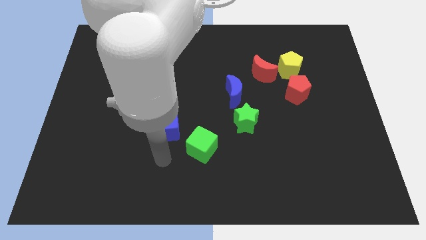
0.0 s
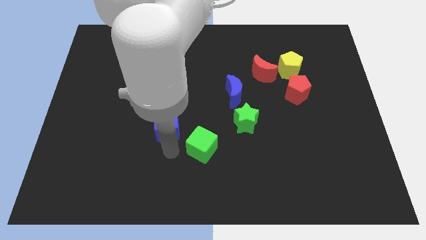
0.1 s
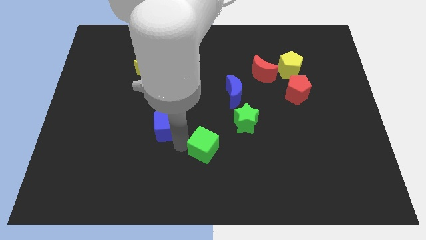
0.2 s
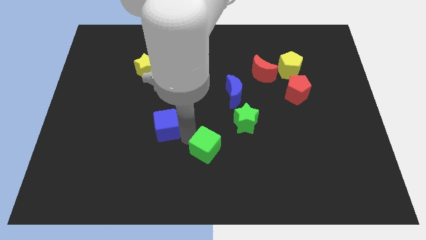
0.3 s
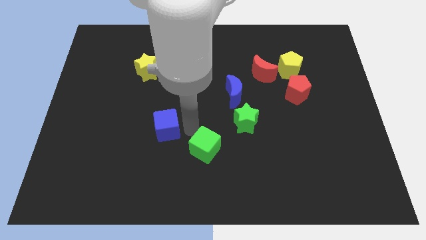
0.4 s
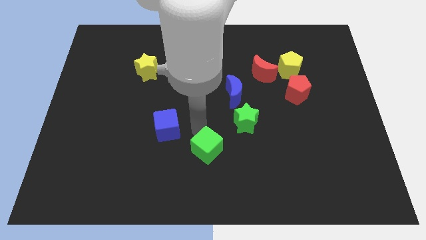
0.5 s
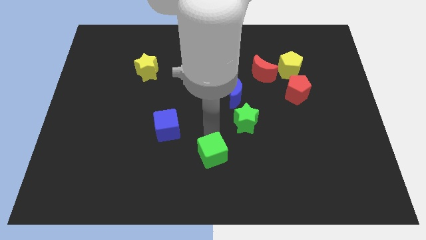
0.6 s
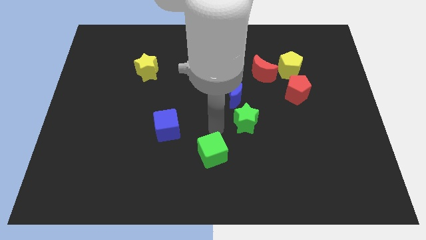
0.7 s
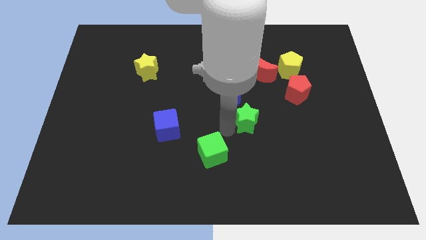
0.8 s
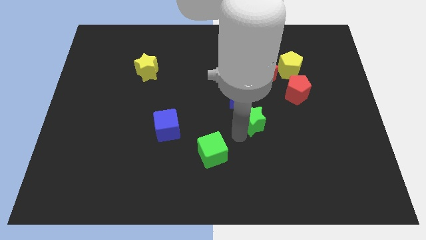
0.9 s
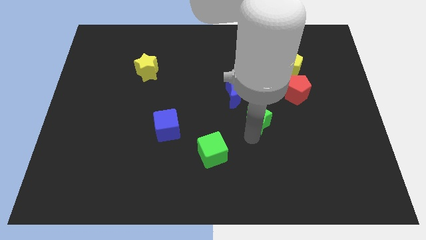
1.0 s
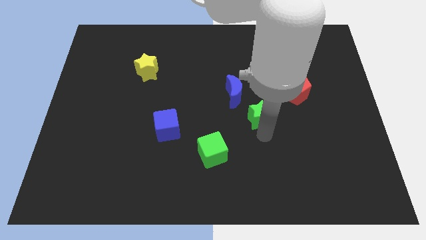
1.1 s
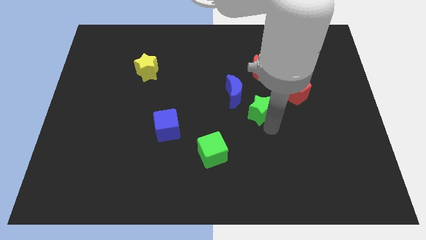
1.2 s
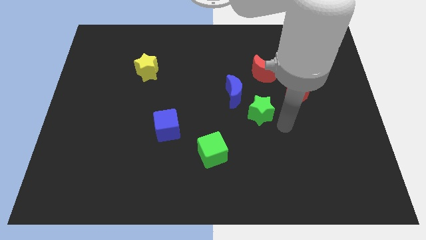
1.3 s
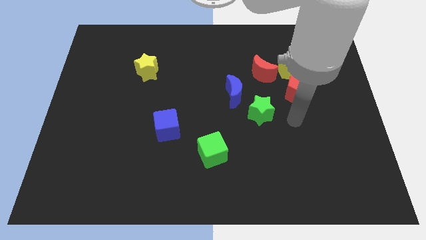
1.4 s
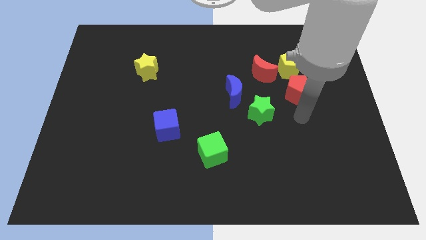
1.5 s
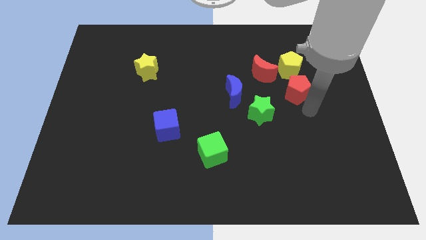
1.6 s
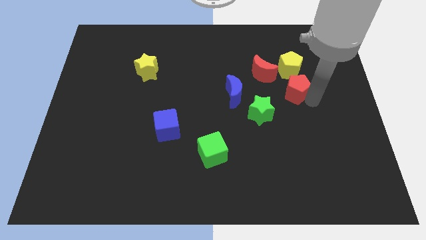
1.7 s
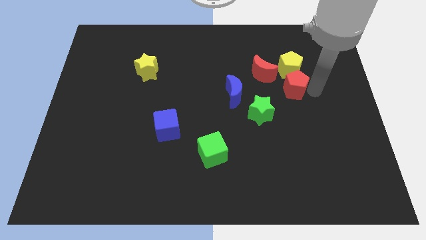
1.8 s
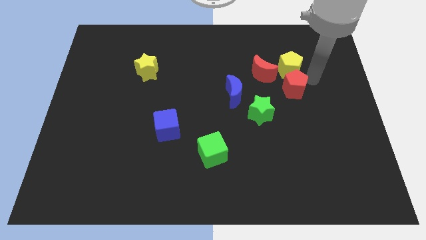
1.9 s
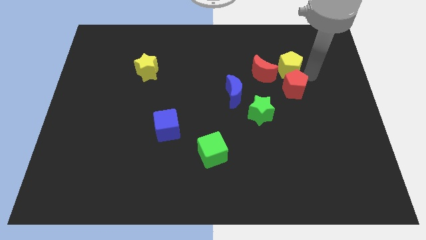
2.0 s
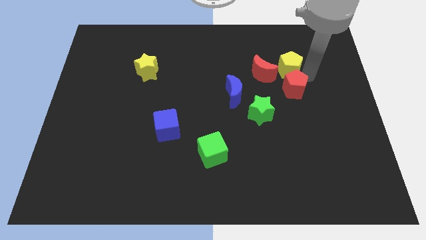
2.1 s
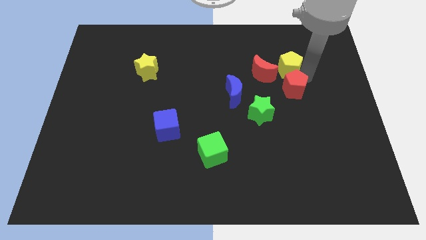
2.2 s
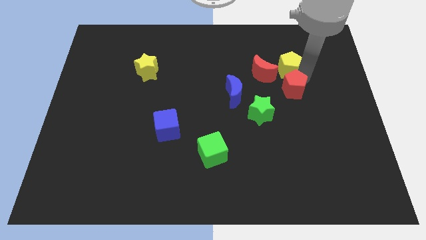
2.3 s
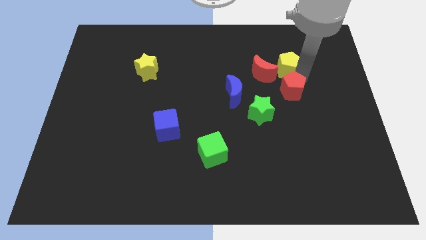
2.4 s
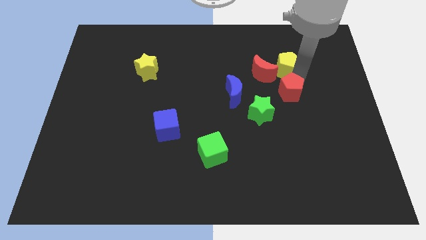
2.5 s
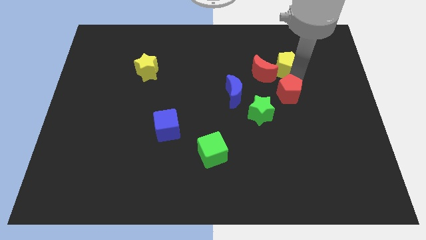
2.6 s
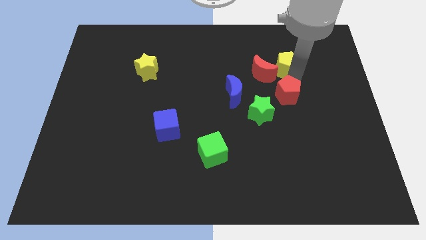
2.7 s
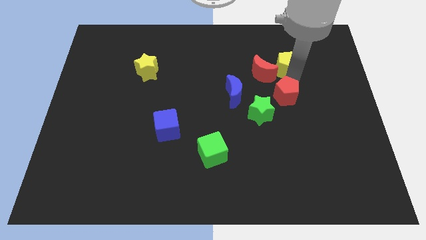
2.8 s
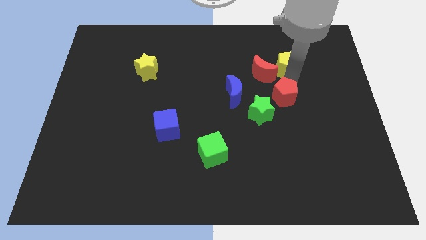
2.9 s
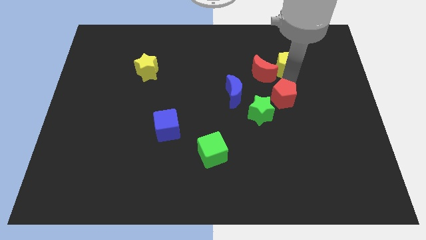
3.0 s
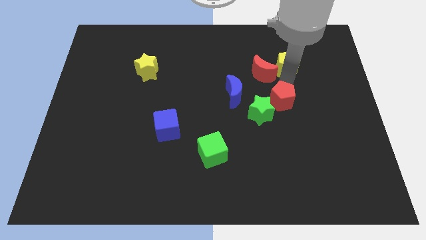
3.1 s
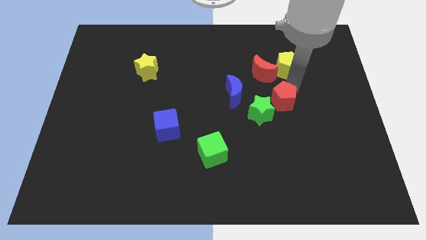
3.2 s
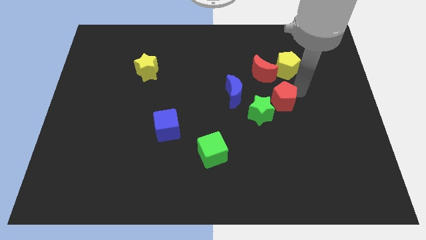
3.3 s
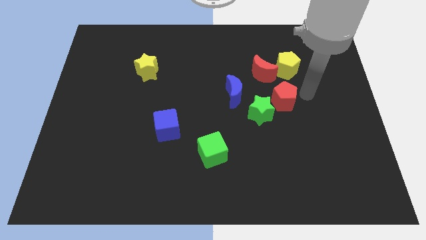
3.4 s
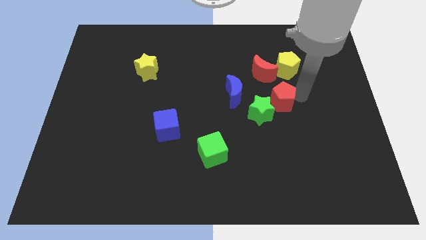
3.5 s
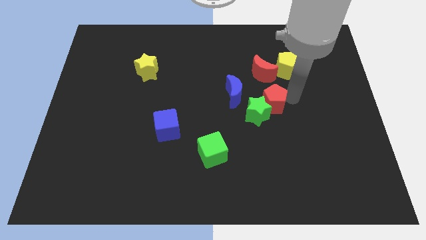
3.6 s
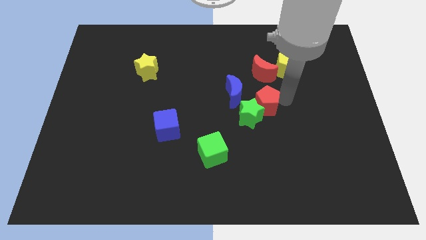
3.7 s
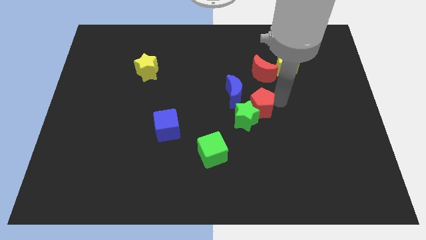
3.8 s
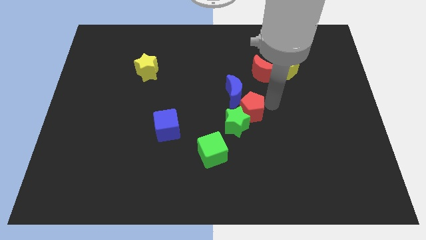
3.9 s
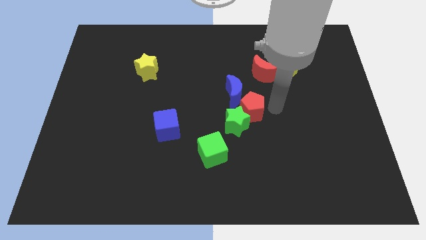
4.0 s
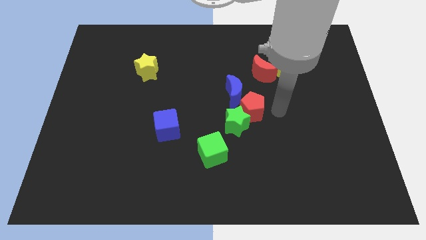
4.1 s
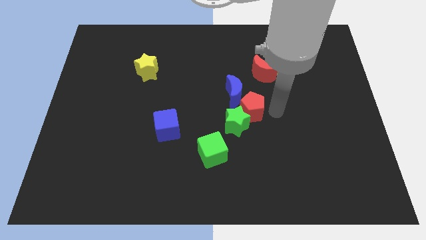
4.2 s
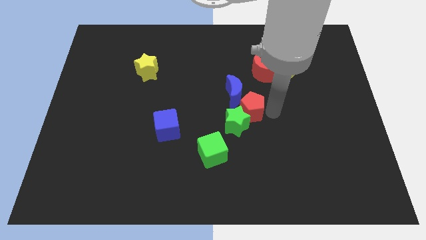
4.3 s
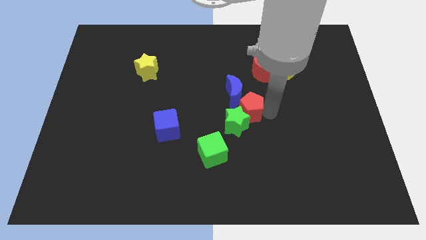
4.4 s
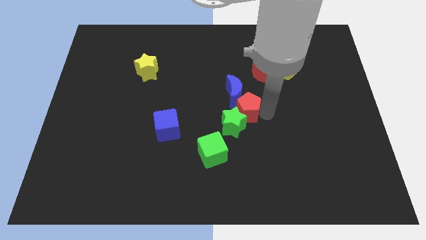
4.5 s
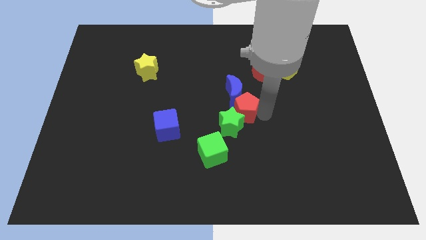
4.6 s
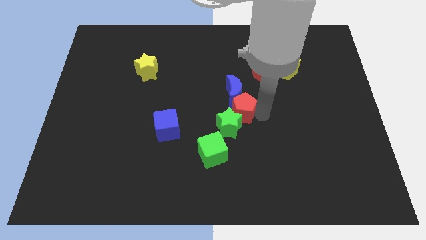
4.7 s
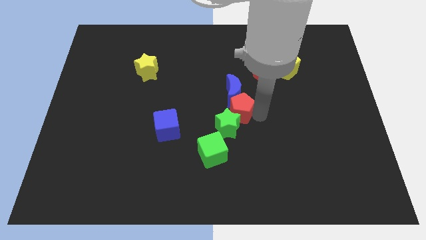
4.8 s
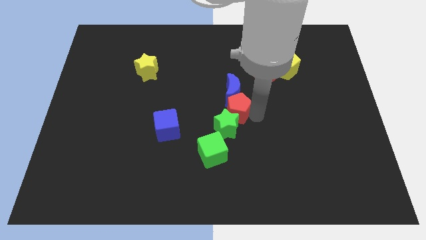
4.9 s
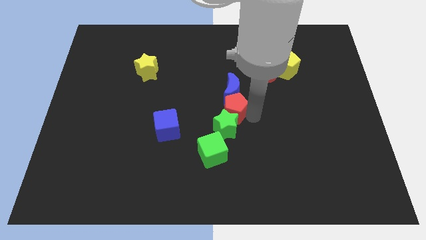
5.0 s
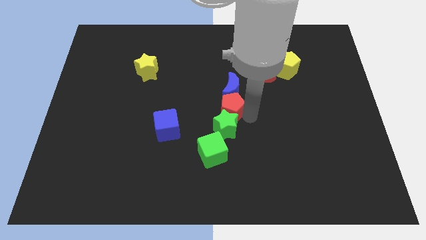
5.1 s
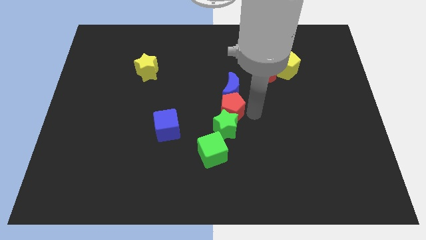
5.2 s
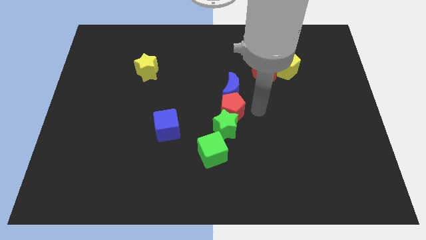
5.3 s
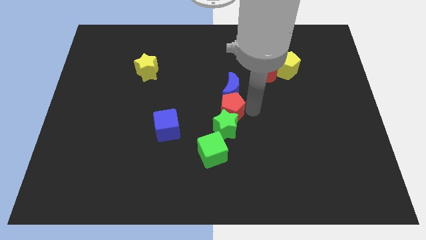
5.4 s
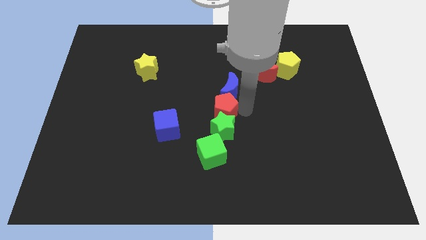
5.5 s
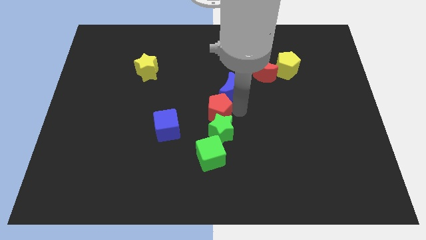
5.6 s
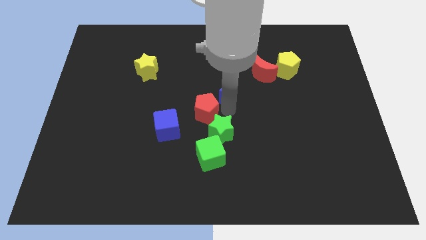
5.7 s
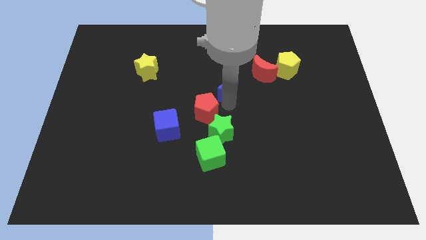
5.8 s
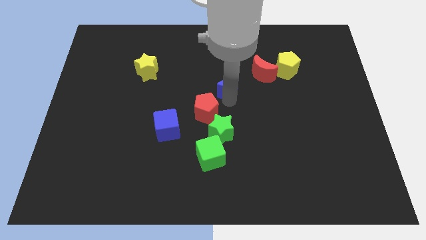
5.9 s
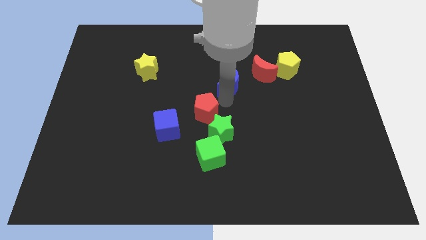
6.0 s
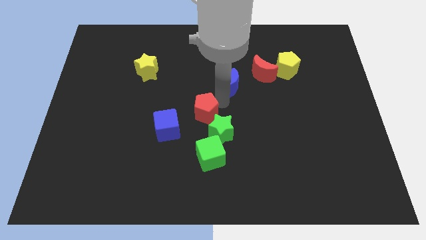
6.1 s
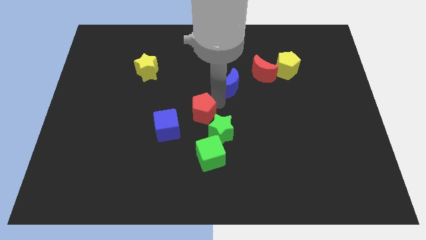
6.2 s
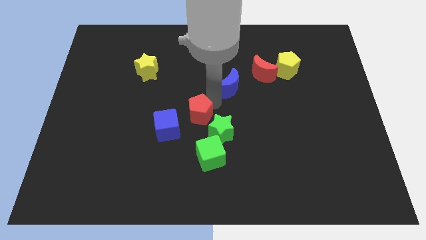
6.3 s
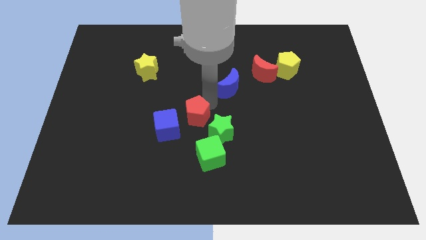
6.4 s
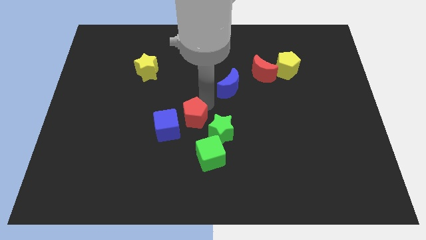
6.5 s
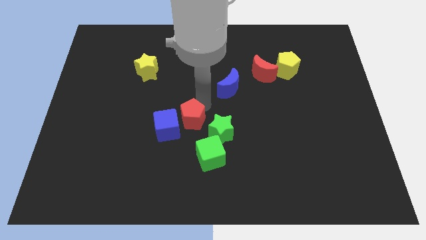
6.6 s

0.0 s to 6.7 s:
move the red pentagon towards the blue cube

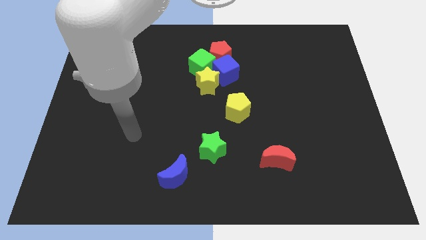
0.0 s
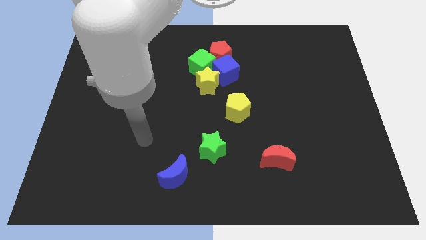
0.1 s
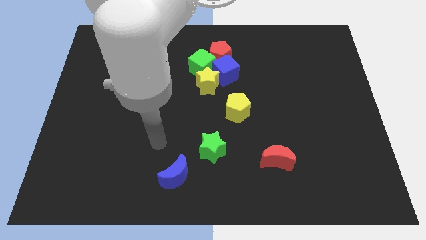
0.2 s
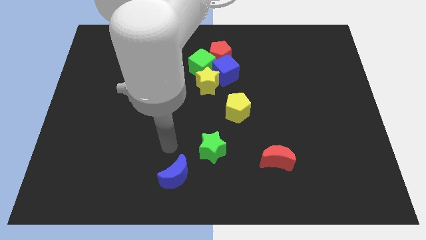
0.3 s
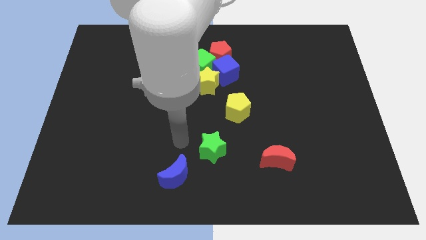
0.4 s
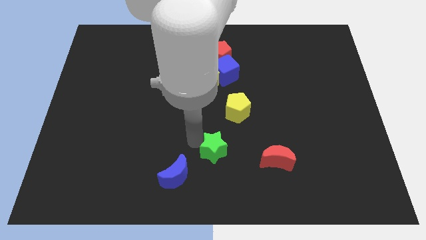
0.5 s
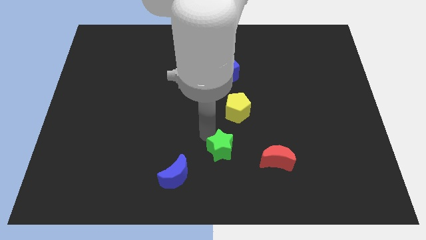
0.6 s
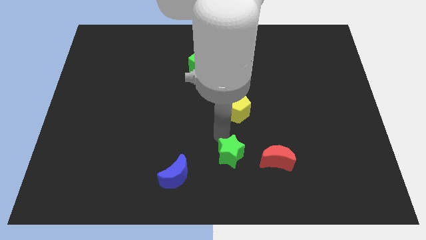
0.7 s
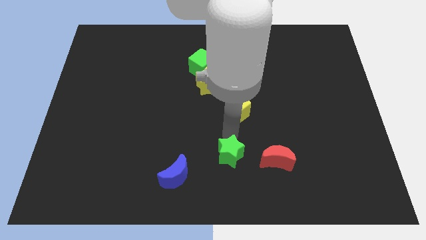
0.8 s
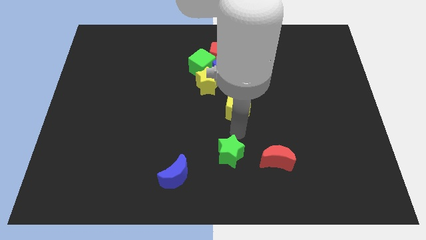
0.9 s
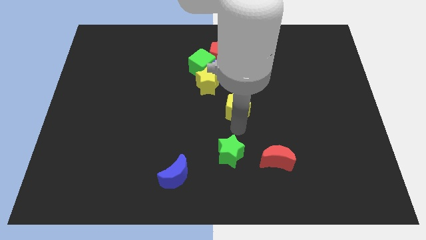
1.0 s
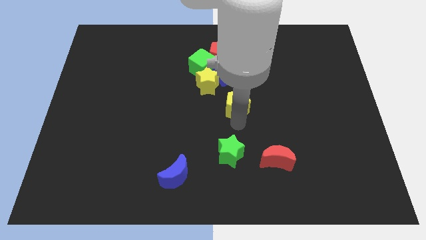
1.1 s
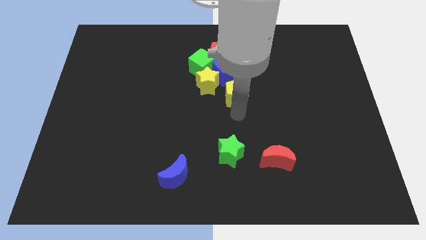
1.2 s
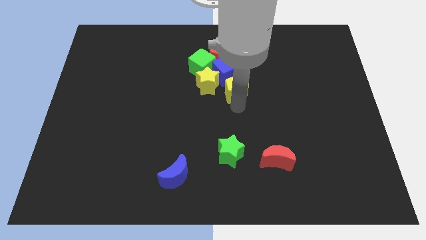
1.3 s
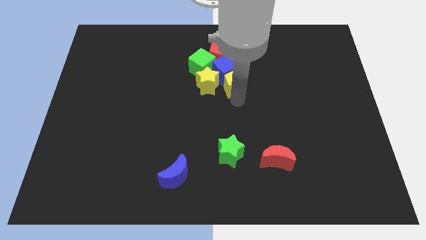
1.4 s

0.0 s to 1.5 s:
slide the yellow pentagon next to the blue cube
